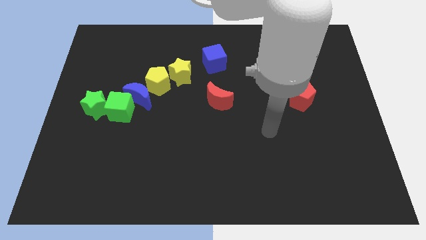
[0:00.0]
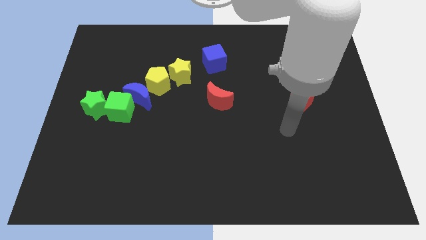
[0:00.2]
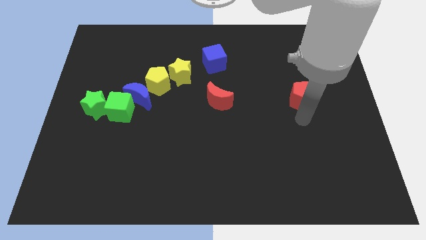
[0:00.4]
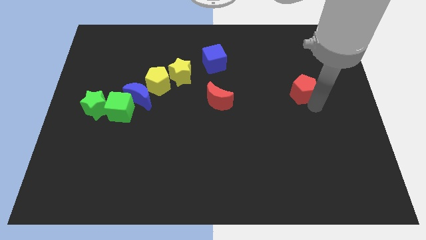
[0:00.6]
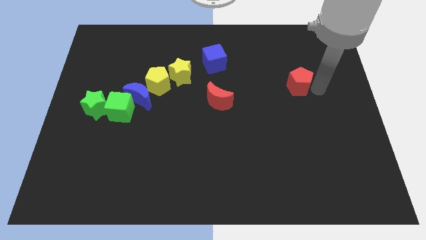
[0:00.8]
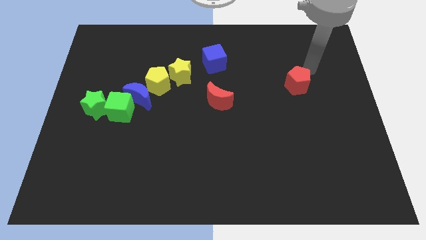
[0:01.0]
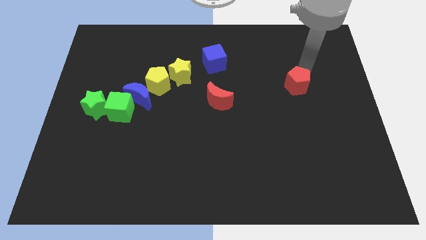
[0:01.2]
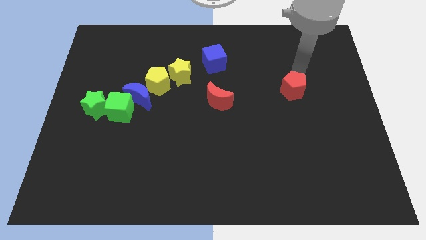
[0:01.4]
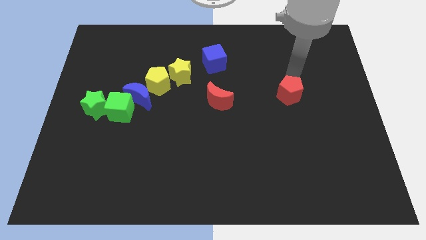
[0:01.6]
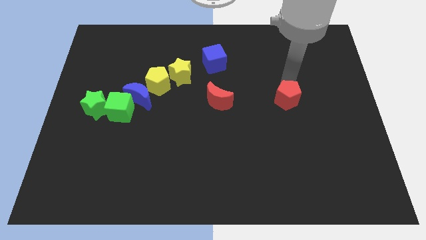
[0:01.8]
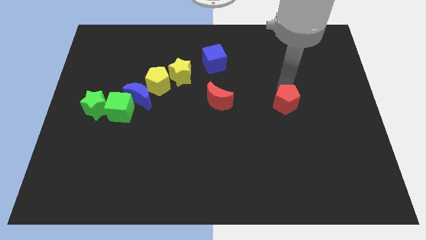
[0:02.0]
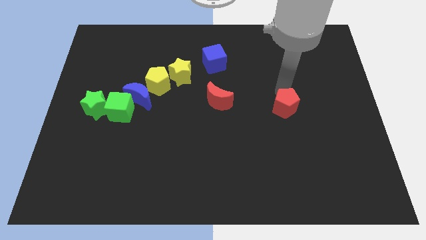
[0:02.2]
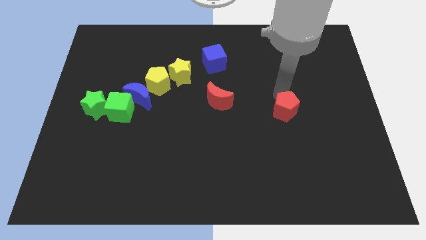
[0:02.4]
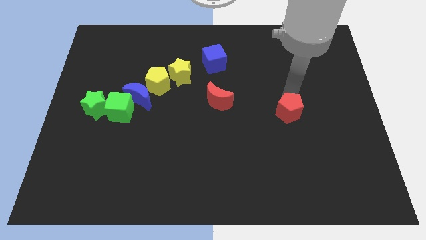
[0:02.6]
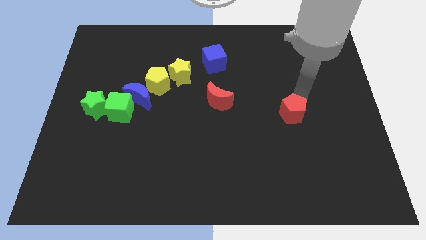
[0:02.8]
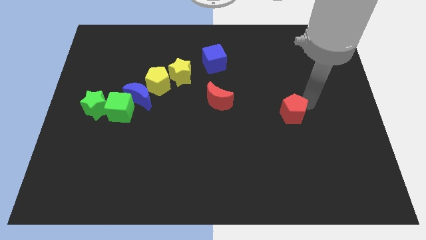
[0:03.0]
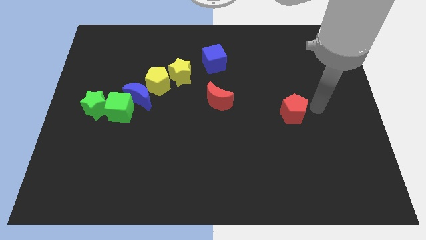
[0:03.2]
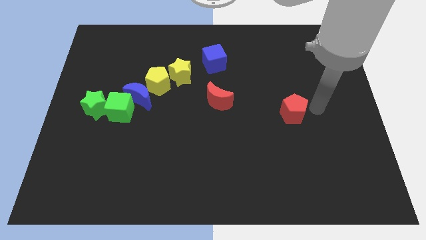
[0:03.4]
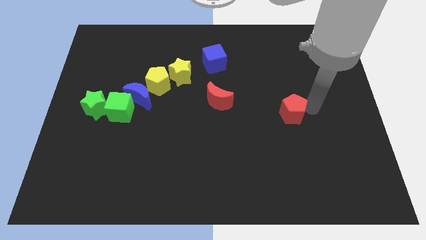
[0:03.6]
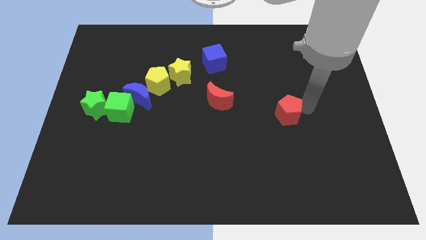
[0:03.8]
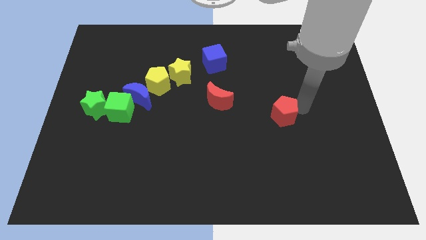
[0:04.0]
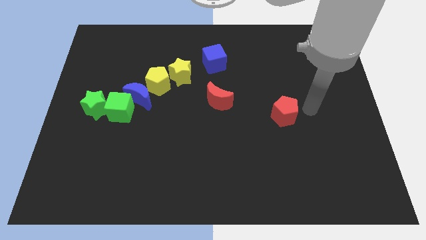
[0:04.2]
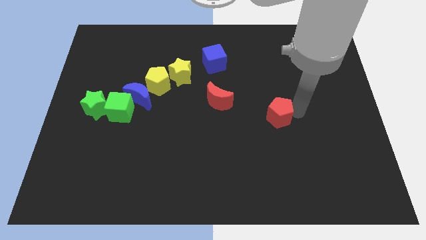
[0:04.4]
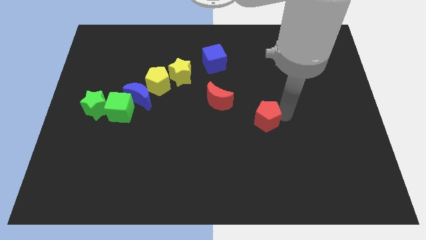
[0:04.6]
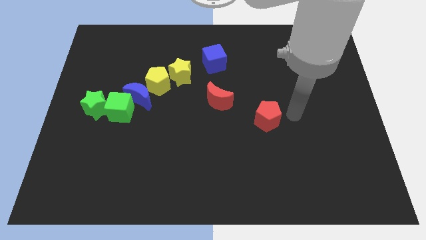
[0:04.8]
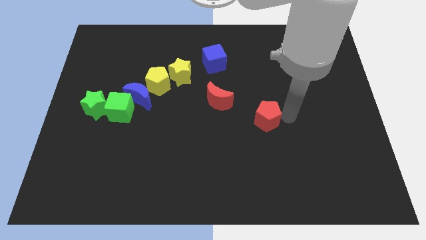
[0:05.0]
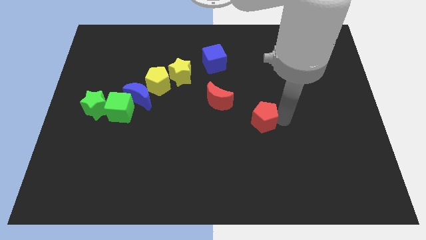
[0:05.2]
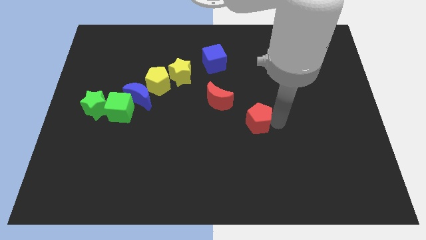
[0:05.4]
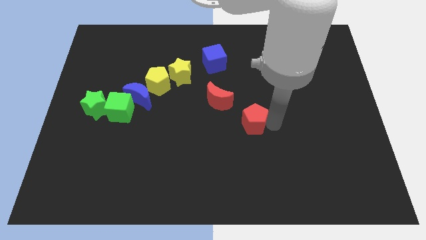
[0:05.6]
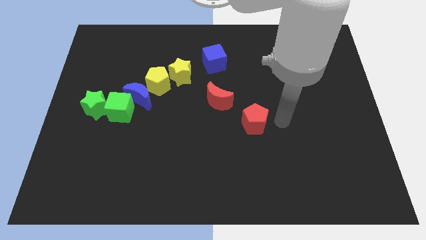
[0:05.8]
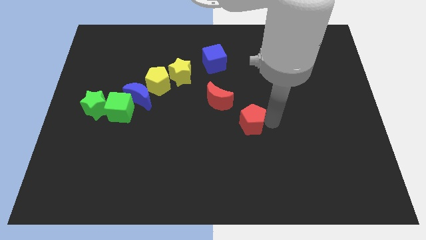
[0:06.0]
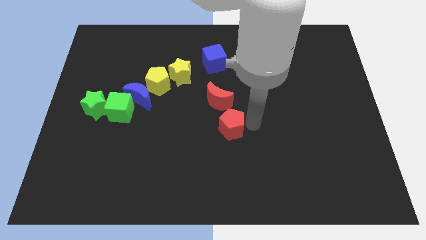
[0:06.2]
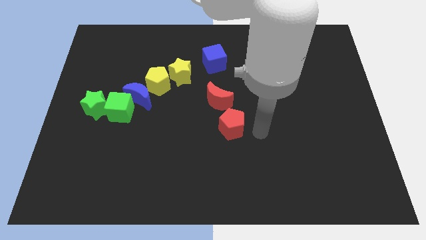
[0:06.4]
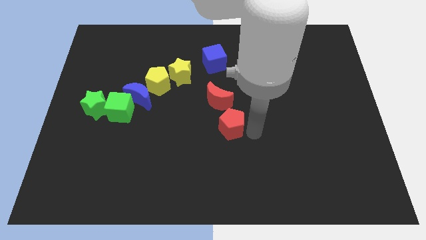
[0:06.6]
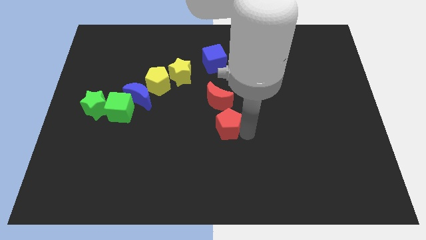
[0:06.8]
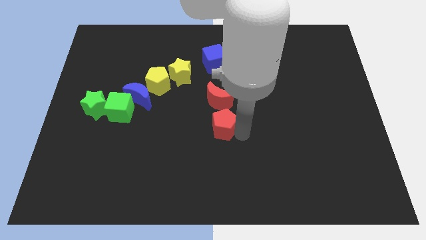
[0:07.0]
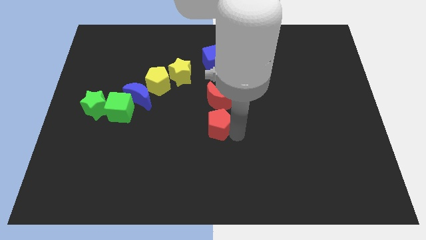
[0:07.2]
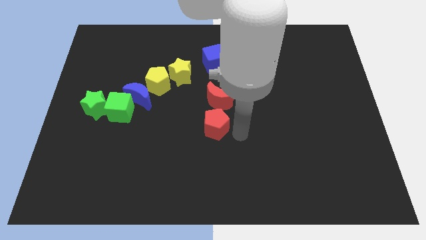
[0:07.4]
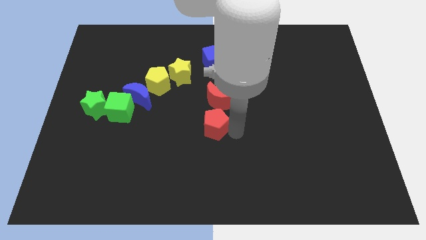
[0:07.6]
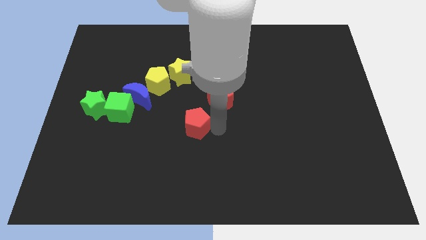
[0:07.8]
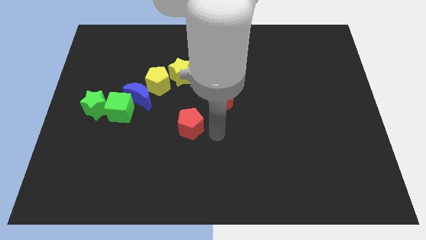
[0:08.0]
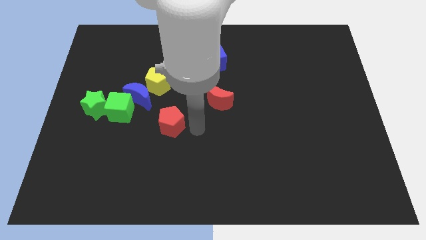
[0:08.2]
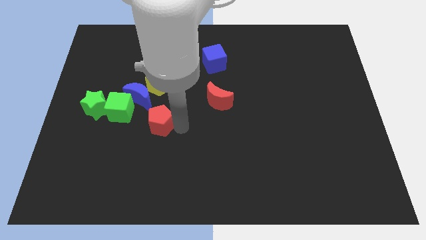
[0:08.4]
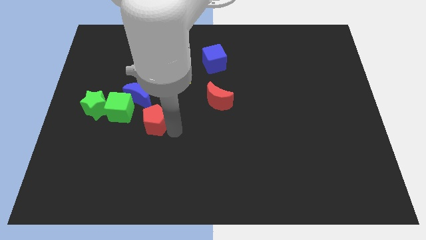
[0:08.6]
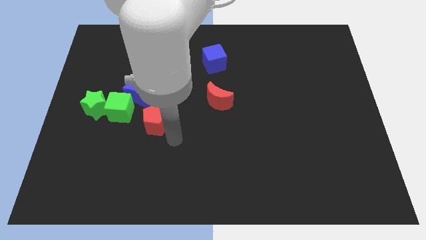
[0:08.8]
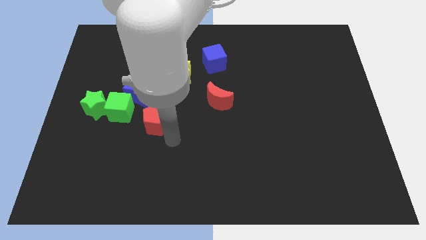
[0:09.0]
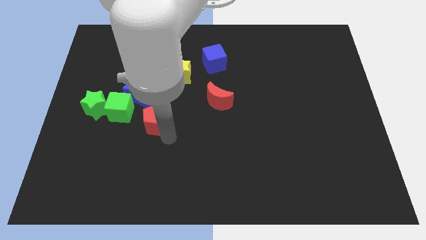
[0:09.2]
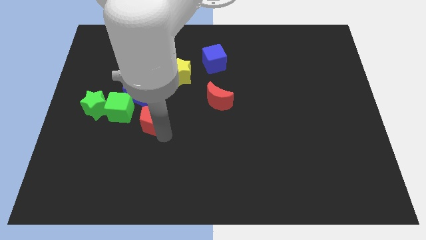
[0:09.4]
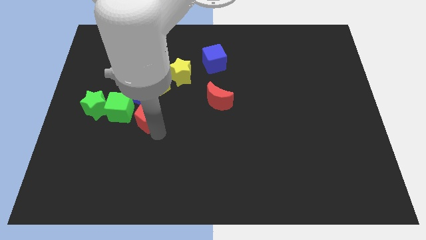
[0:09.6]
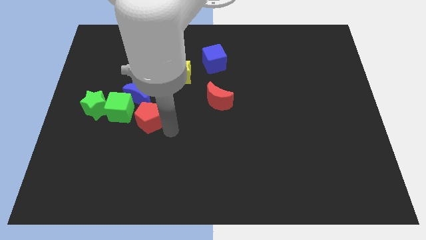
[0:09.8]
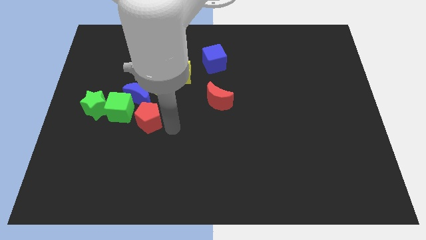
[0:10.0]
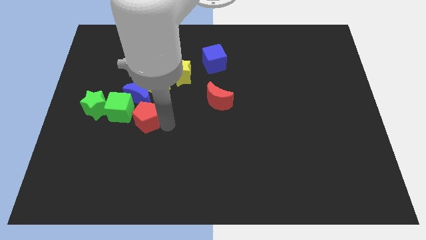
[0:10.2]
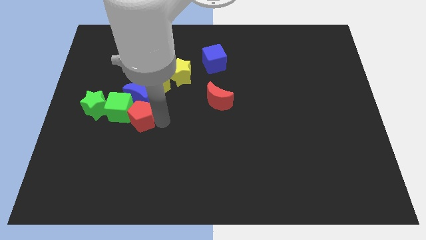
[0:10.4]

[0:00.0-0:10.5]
slide the red pentagon next to the green cube

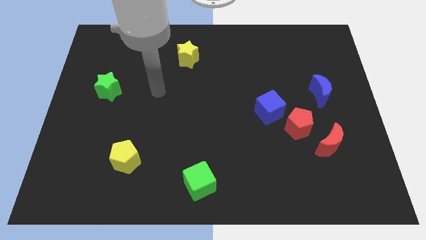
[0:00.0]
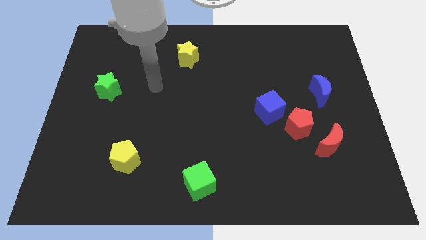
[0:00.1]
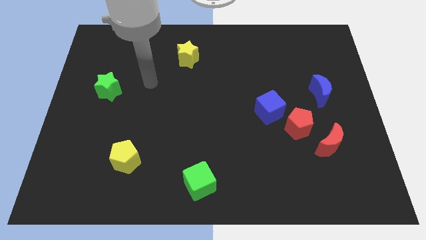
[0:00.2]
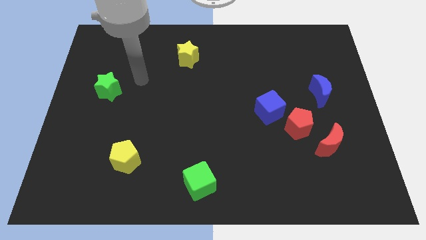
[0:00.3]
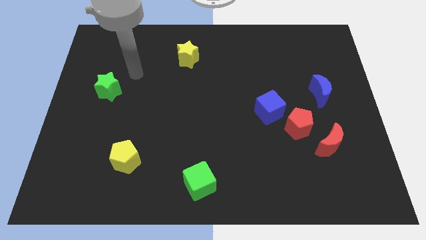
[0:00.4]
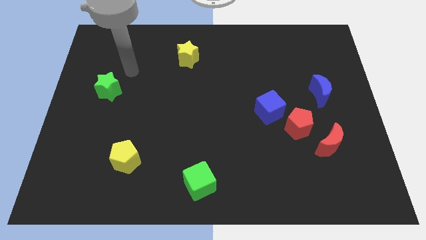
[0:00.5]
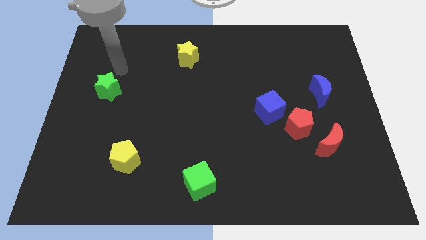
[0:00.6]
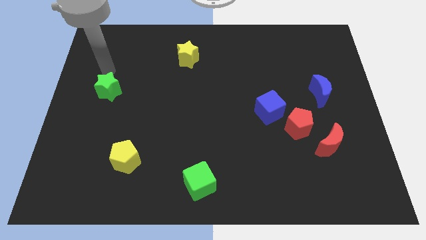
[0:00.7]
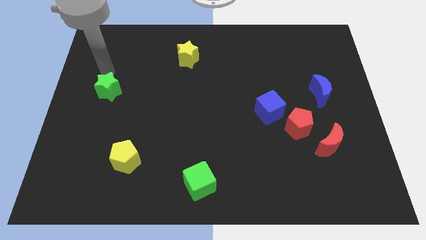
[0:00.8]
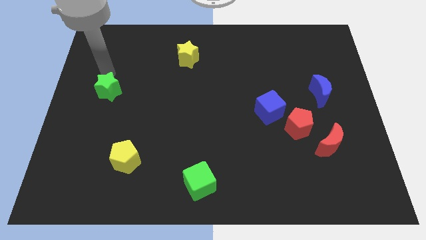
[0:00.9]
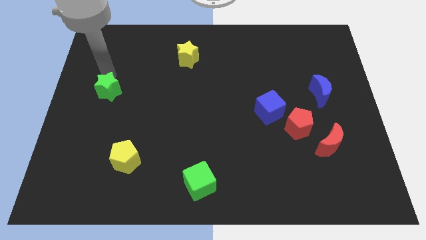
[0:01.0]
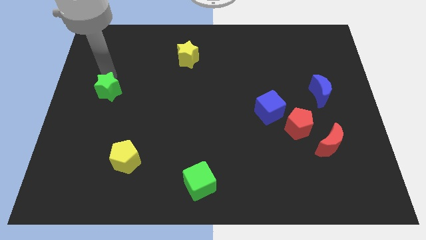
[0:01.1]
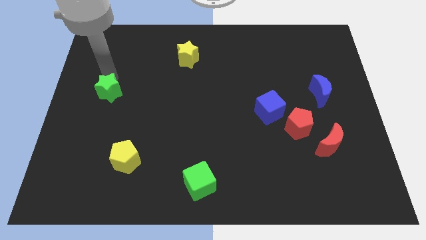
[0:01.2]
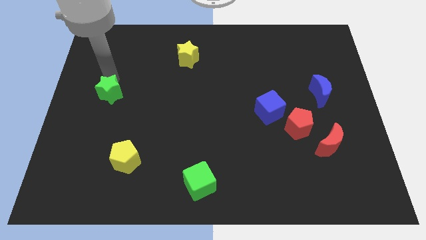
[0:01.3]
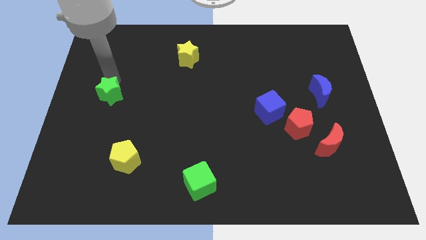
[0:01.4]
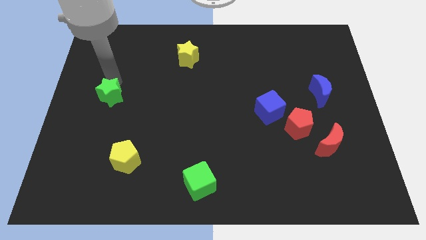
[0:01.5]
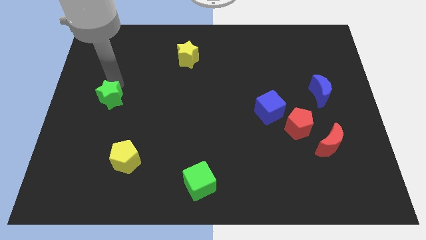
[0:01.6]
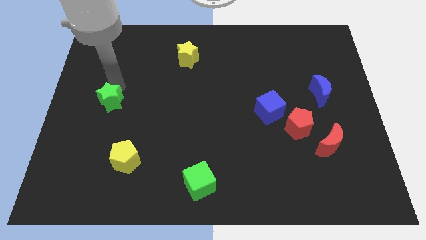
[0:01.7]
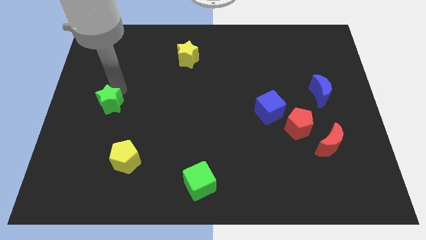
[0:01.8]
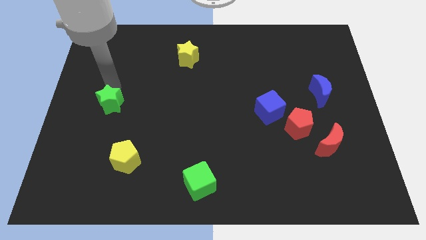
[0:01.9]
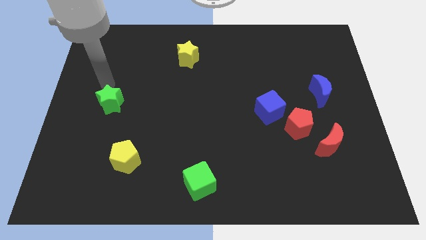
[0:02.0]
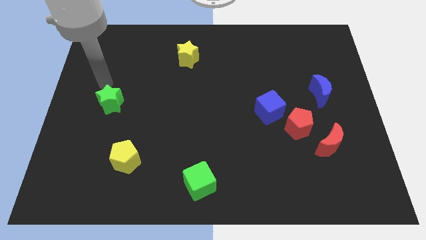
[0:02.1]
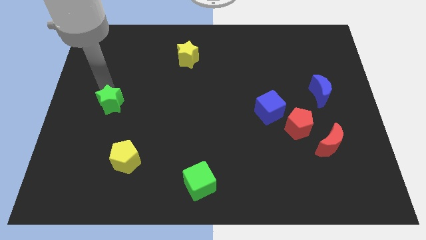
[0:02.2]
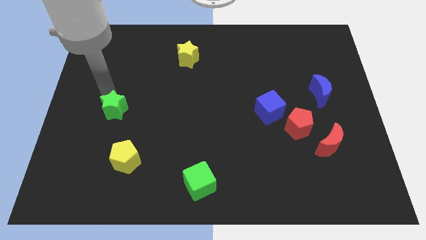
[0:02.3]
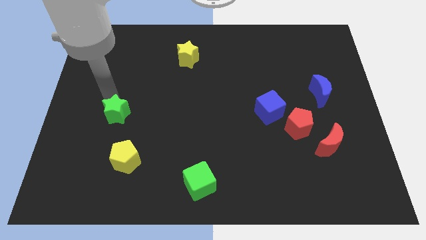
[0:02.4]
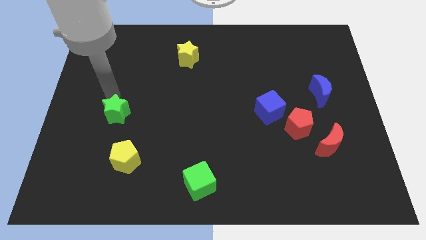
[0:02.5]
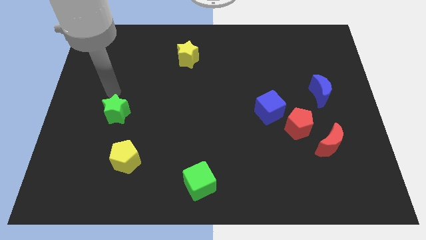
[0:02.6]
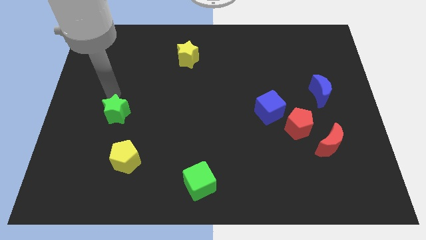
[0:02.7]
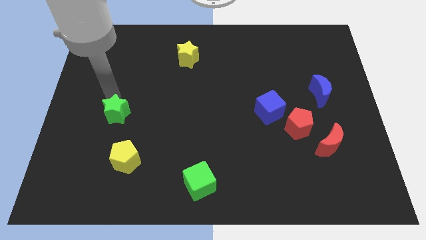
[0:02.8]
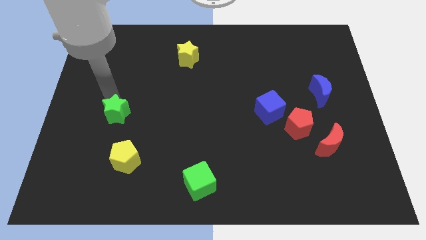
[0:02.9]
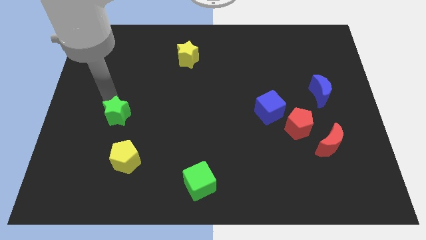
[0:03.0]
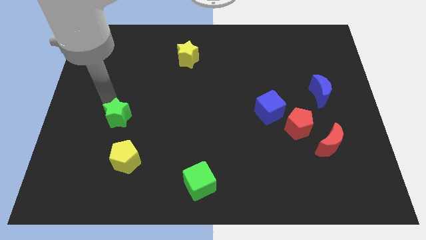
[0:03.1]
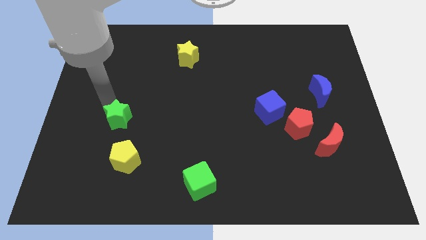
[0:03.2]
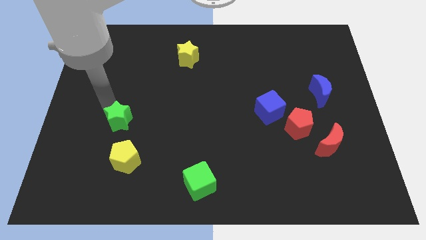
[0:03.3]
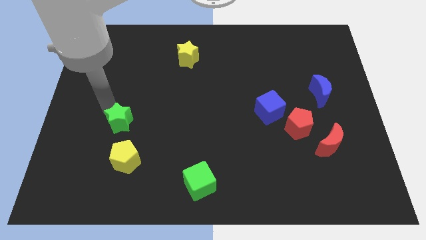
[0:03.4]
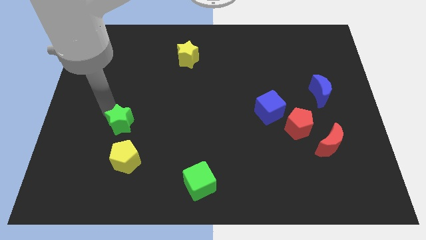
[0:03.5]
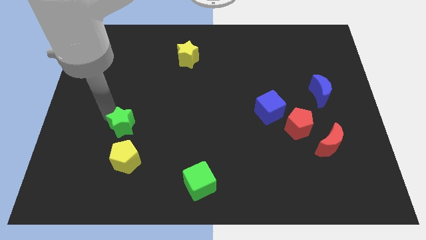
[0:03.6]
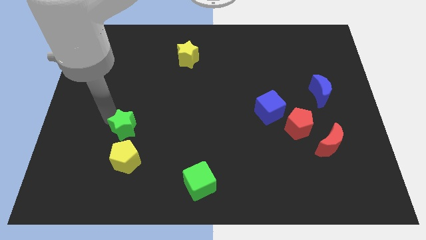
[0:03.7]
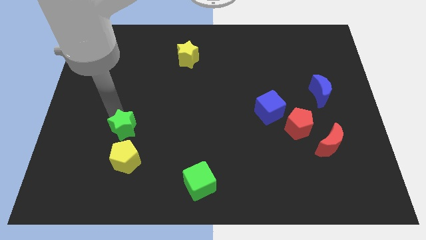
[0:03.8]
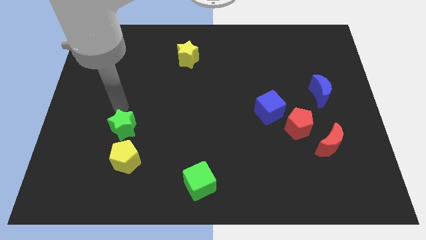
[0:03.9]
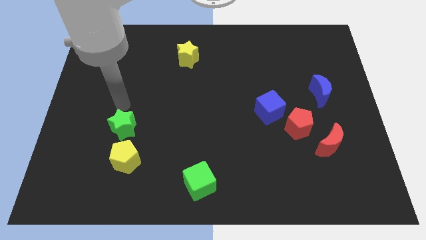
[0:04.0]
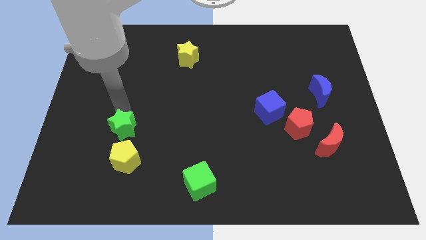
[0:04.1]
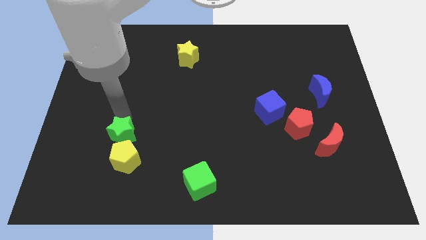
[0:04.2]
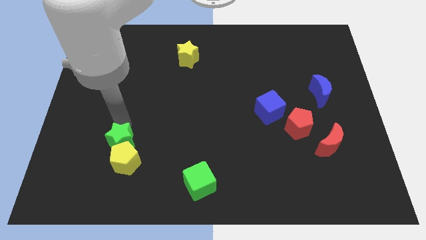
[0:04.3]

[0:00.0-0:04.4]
put the green star next to the yellow pentagon
